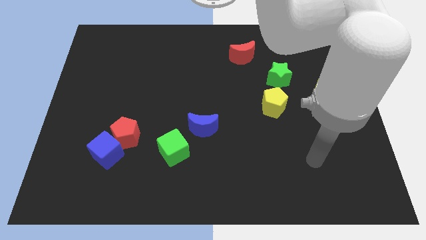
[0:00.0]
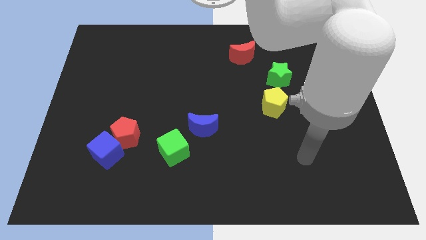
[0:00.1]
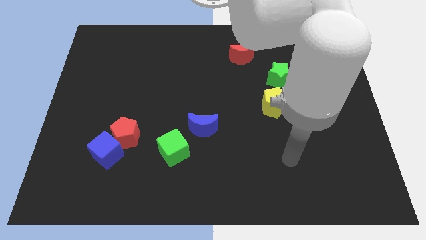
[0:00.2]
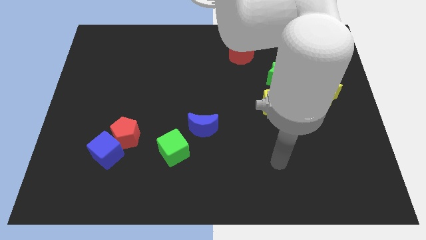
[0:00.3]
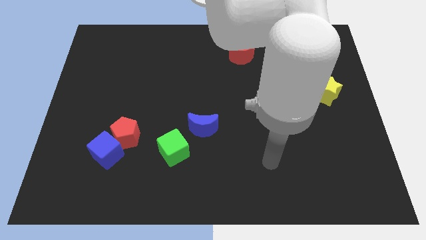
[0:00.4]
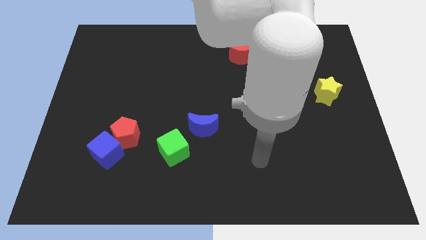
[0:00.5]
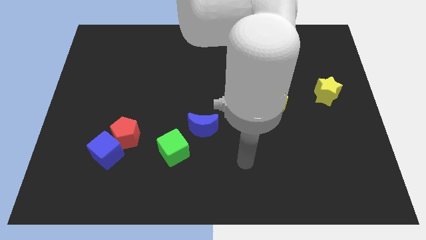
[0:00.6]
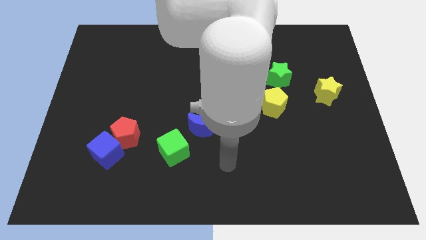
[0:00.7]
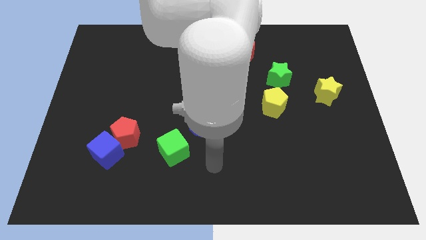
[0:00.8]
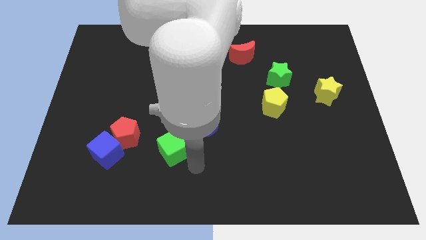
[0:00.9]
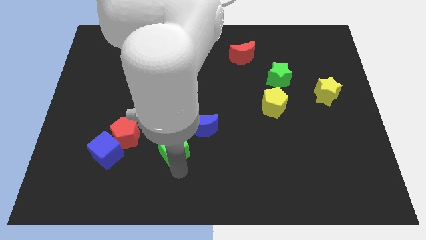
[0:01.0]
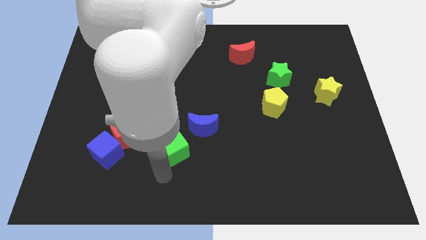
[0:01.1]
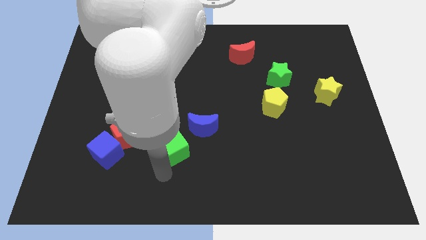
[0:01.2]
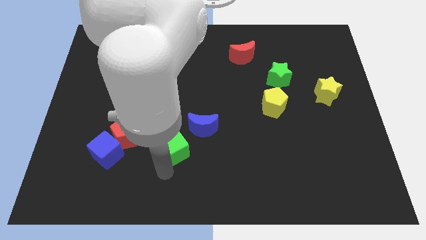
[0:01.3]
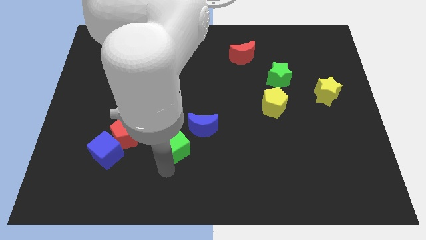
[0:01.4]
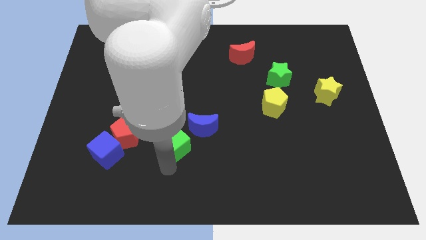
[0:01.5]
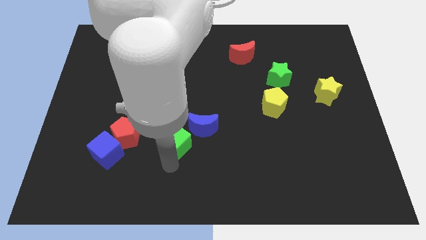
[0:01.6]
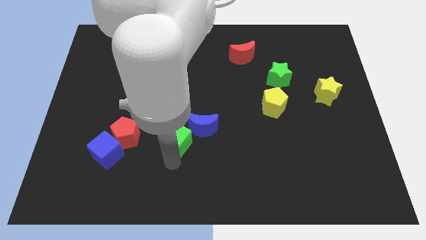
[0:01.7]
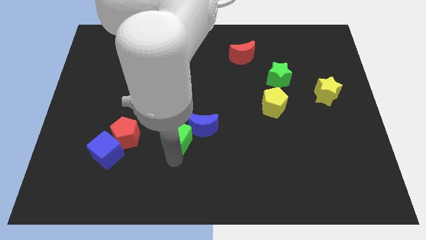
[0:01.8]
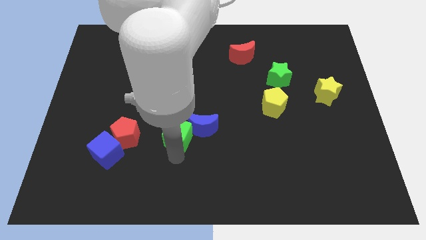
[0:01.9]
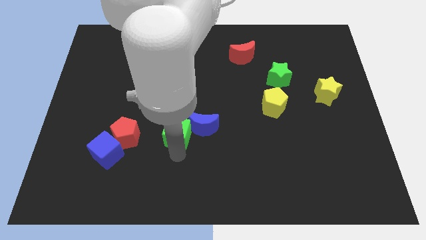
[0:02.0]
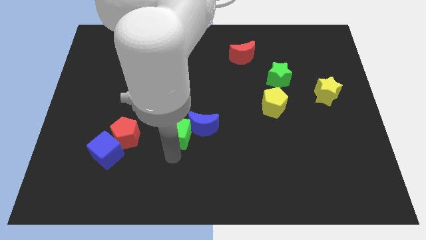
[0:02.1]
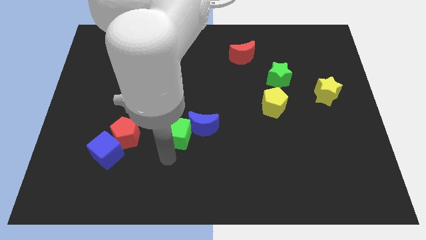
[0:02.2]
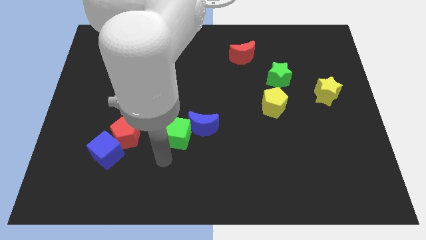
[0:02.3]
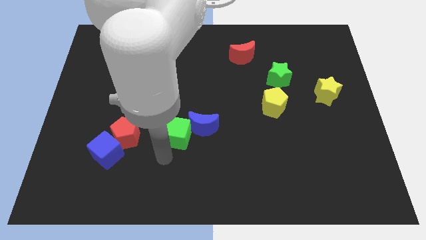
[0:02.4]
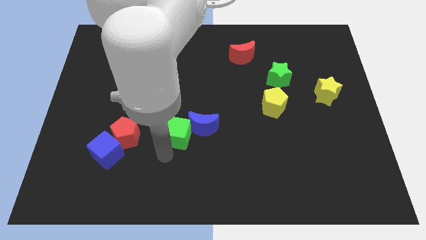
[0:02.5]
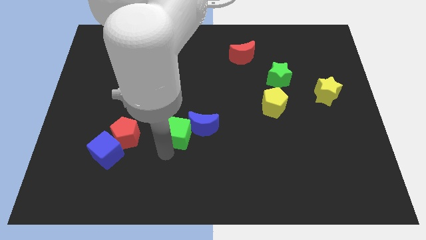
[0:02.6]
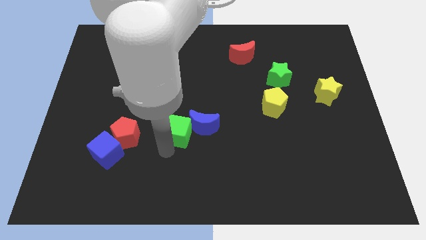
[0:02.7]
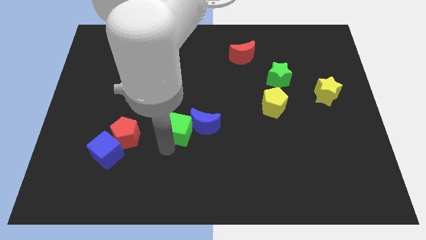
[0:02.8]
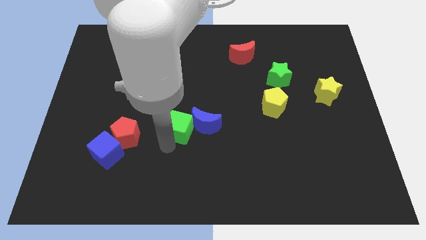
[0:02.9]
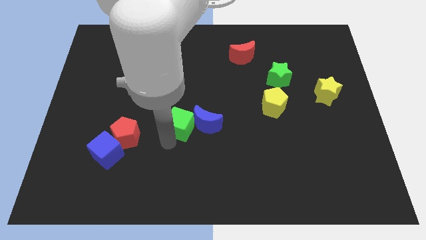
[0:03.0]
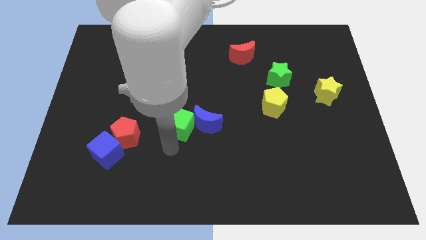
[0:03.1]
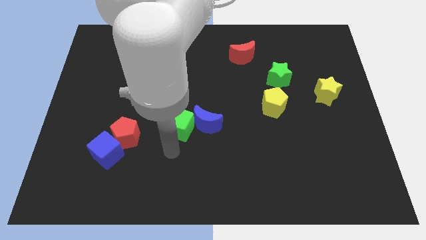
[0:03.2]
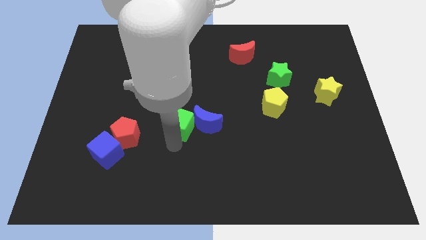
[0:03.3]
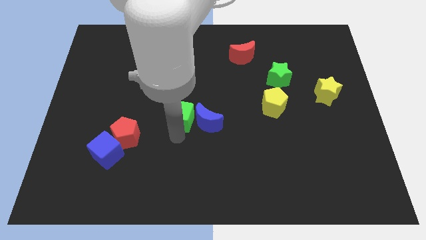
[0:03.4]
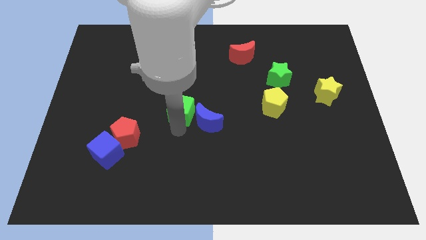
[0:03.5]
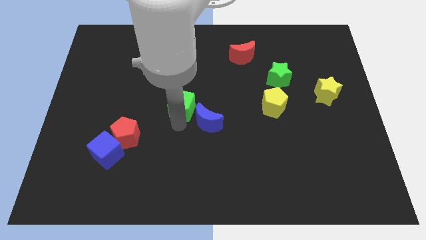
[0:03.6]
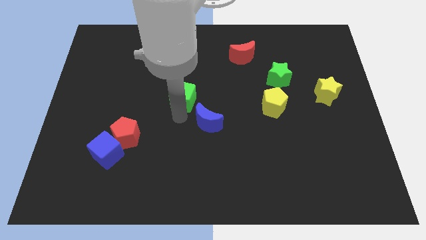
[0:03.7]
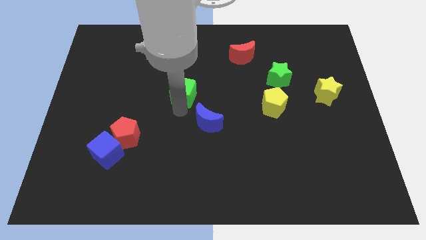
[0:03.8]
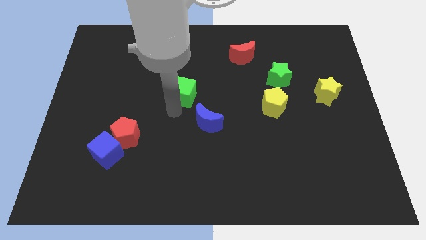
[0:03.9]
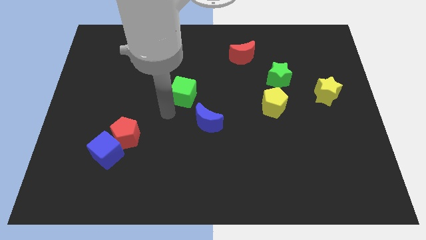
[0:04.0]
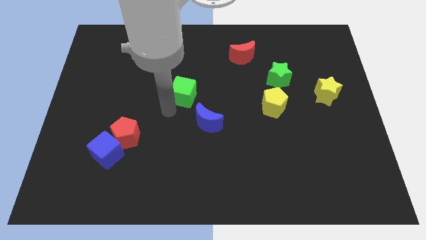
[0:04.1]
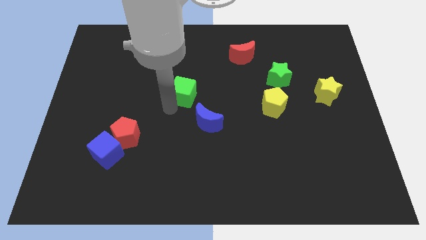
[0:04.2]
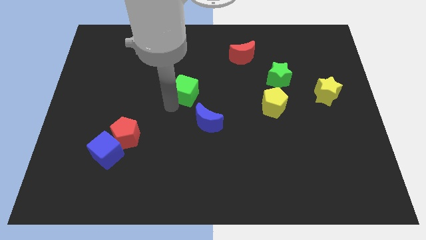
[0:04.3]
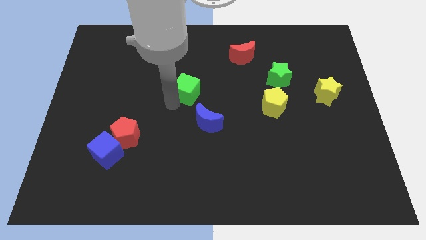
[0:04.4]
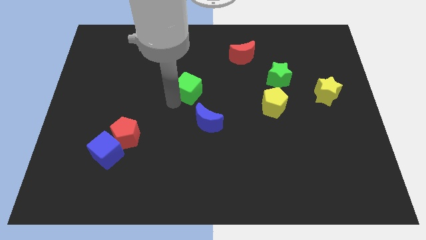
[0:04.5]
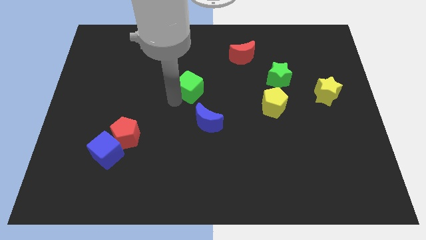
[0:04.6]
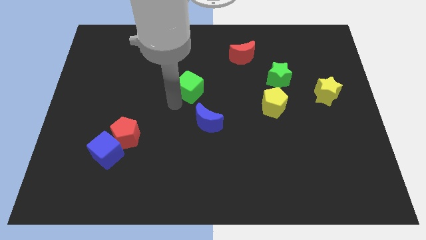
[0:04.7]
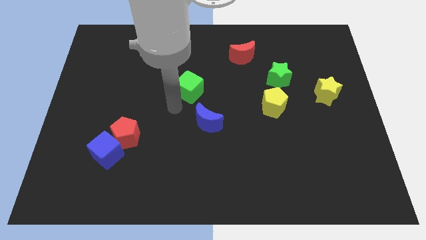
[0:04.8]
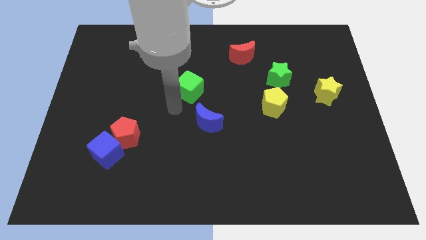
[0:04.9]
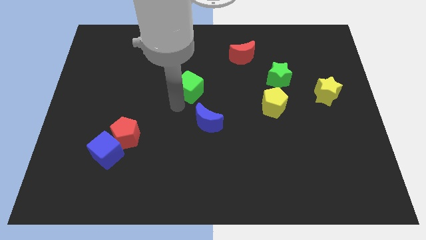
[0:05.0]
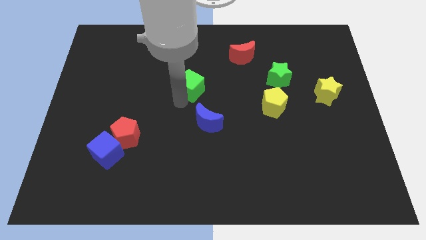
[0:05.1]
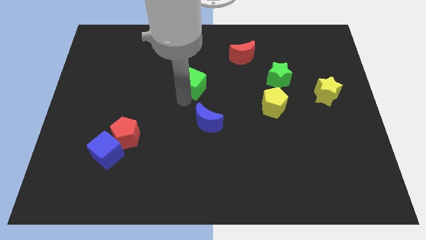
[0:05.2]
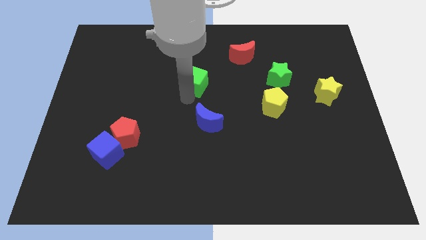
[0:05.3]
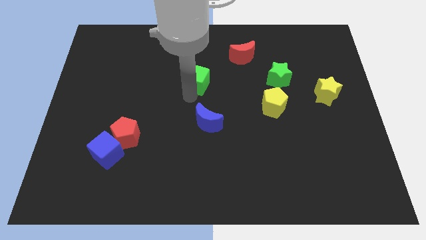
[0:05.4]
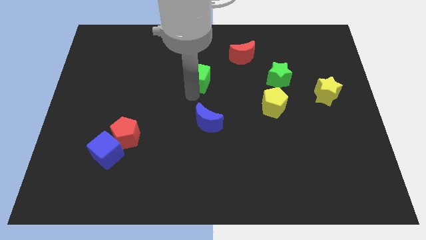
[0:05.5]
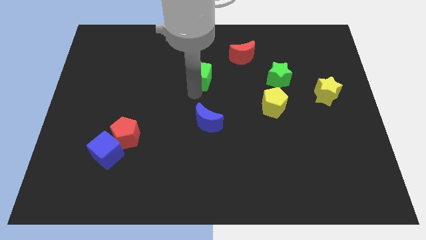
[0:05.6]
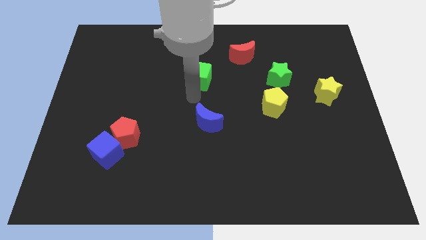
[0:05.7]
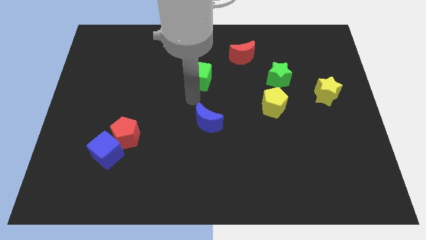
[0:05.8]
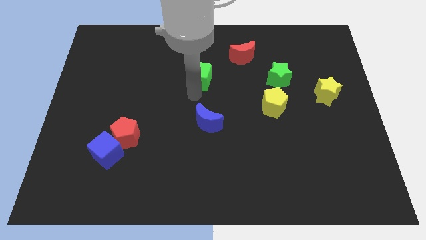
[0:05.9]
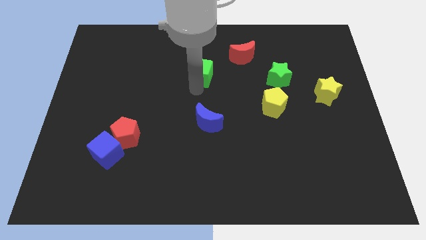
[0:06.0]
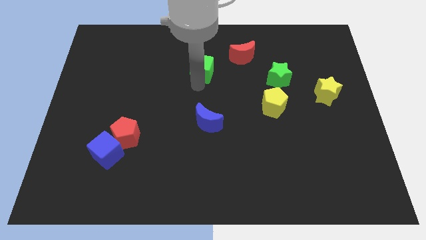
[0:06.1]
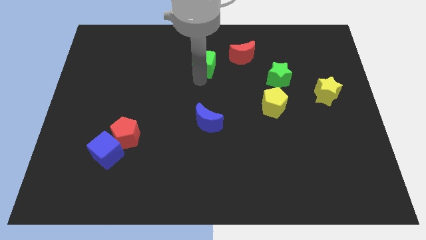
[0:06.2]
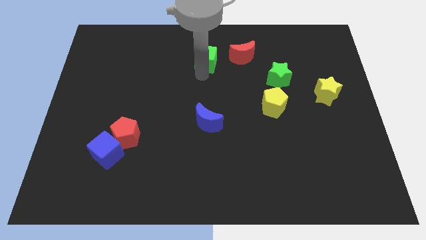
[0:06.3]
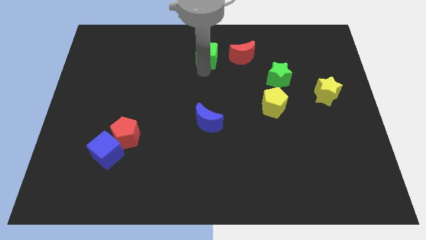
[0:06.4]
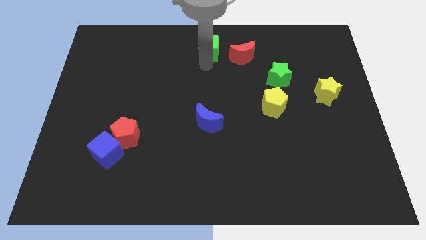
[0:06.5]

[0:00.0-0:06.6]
move the green cube to the top
